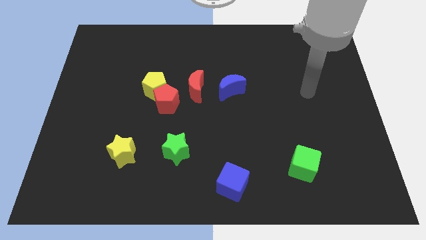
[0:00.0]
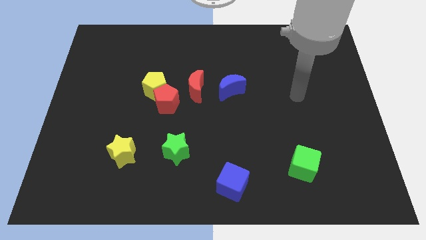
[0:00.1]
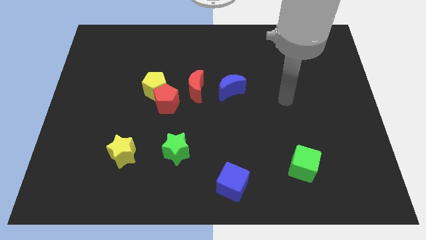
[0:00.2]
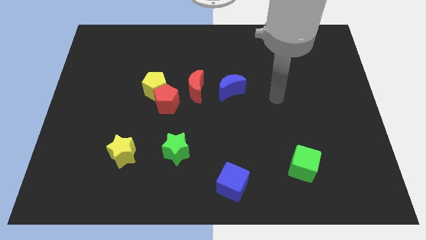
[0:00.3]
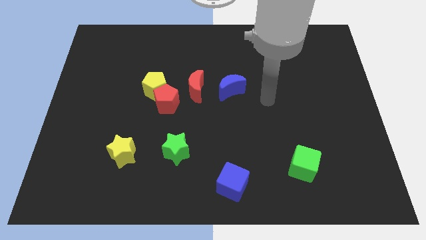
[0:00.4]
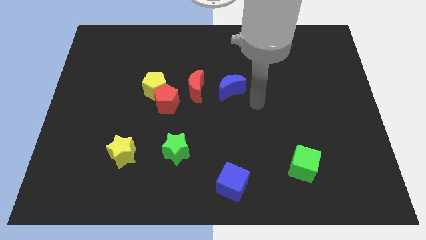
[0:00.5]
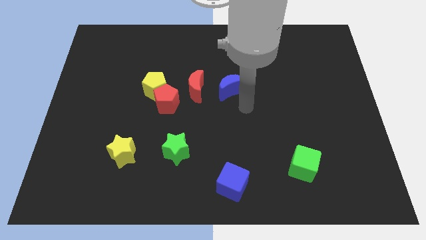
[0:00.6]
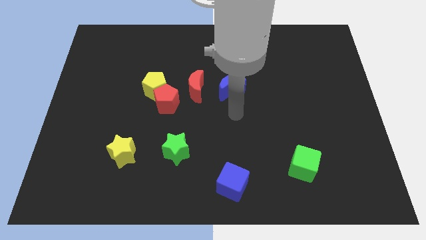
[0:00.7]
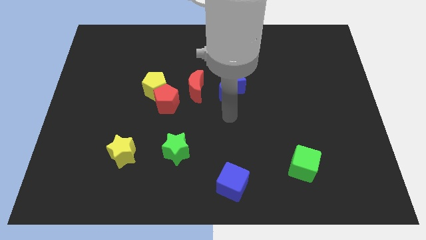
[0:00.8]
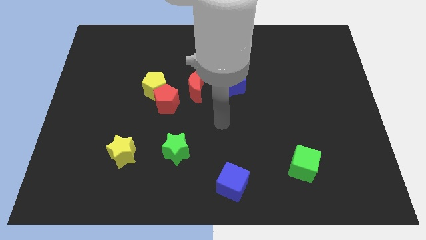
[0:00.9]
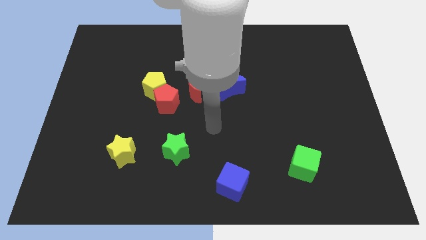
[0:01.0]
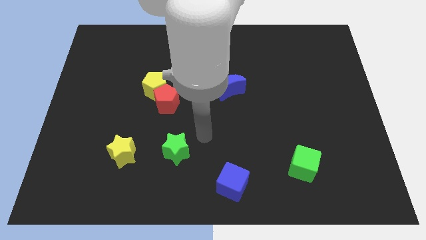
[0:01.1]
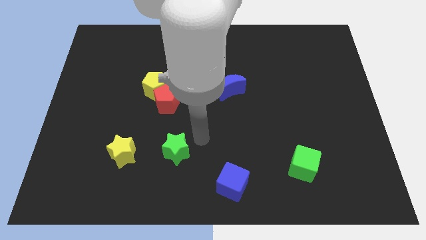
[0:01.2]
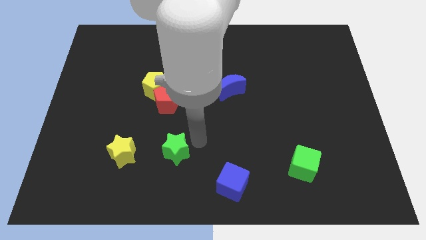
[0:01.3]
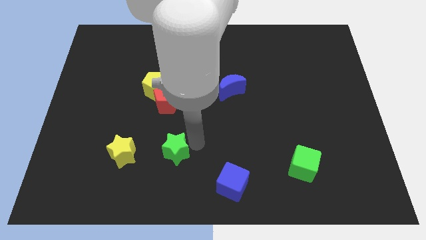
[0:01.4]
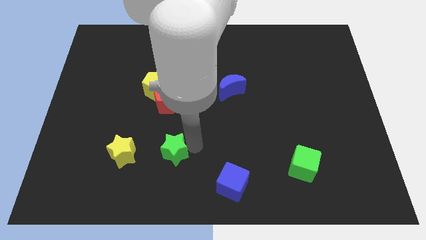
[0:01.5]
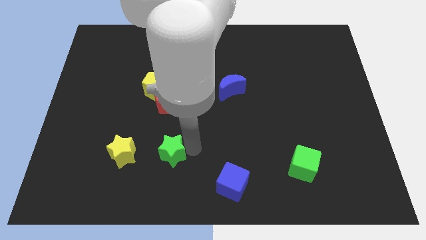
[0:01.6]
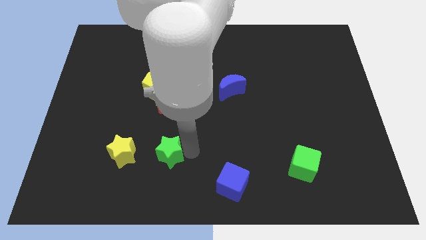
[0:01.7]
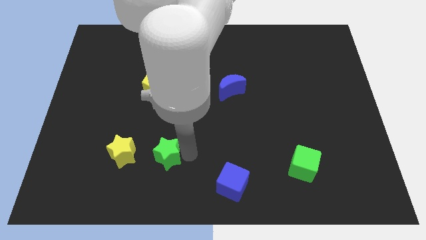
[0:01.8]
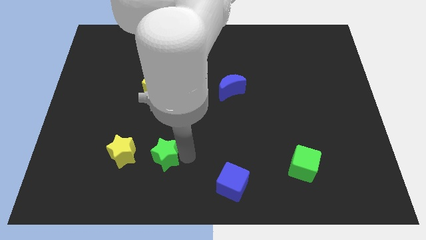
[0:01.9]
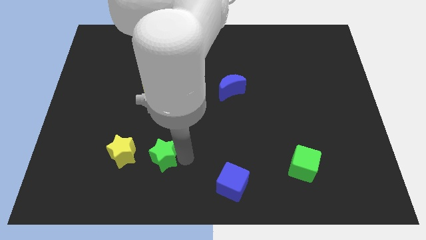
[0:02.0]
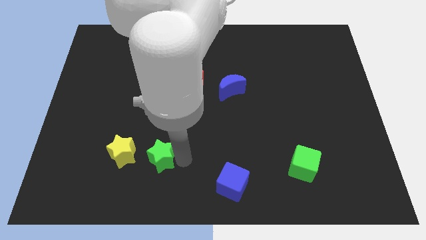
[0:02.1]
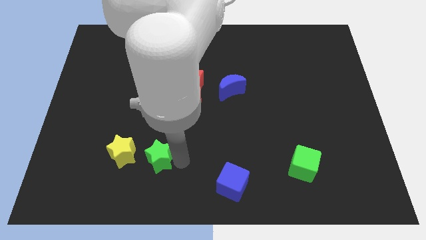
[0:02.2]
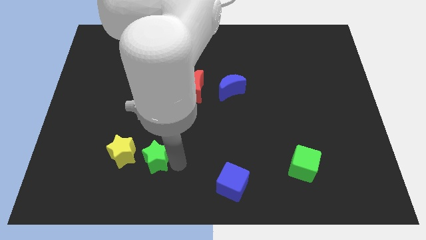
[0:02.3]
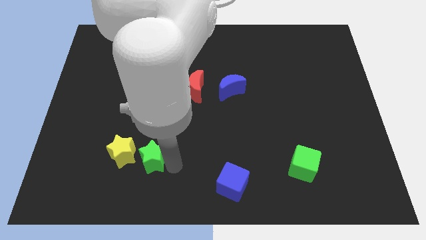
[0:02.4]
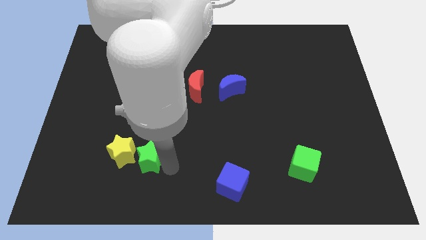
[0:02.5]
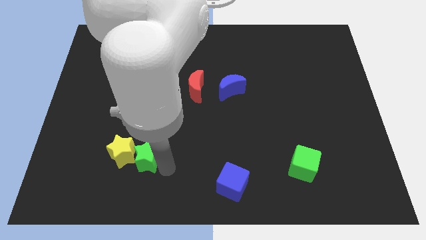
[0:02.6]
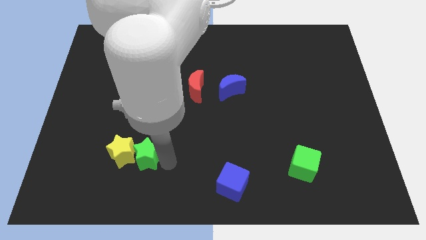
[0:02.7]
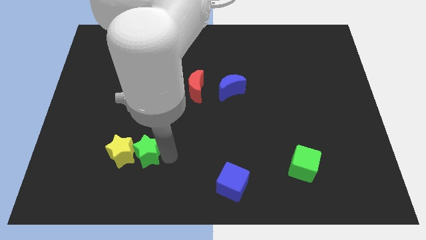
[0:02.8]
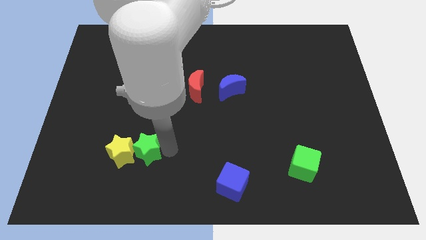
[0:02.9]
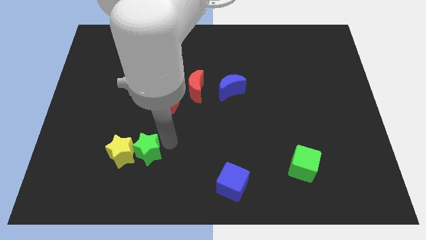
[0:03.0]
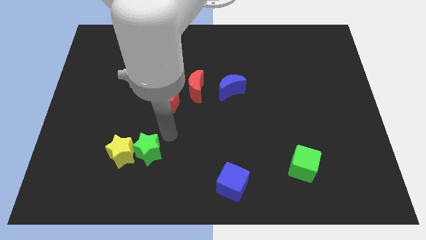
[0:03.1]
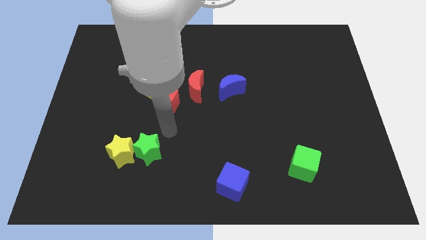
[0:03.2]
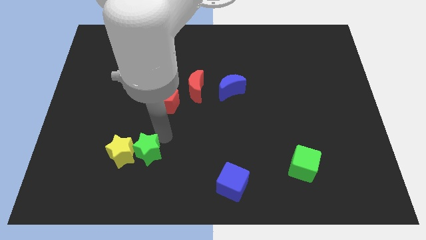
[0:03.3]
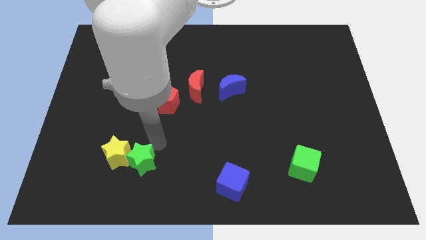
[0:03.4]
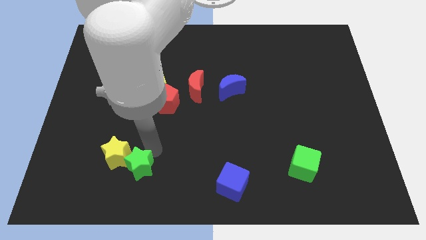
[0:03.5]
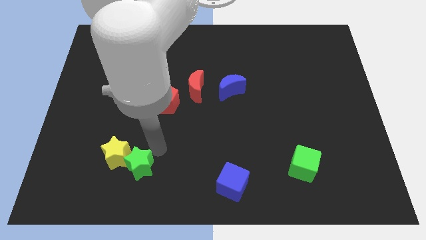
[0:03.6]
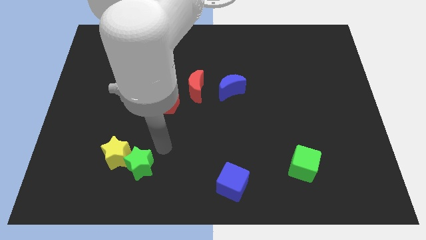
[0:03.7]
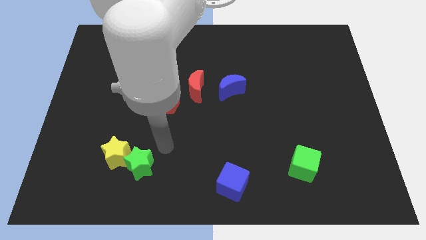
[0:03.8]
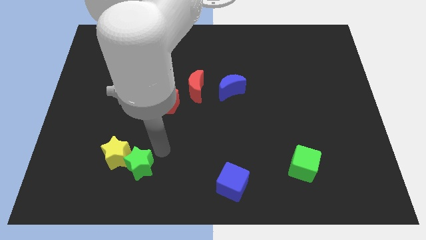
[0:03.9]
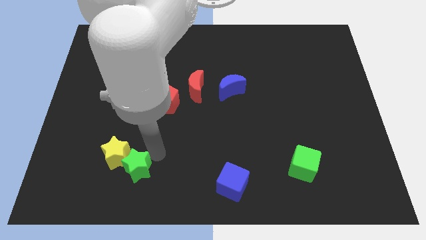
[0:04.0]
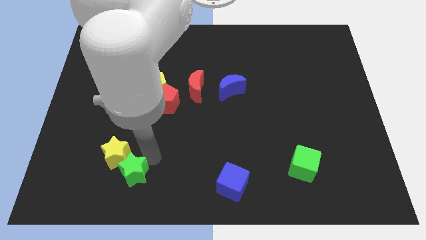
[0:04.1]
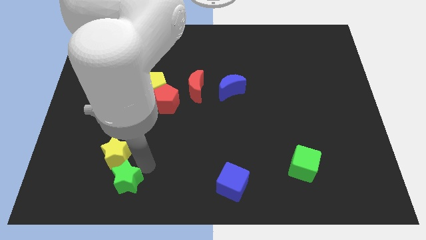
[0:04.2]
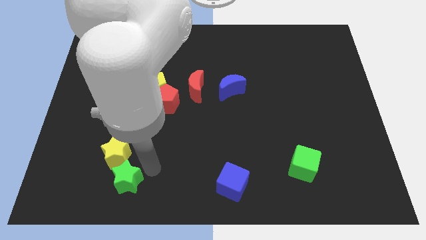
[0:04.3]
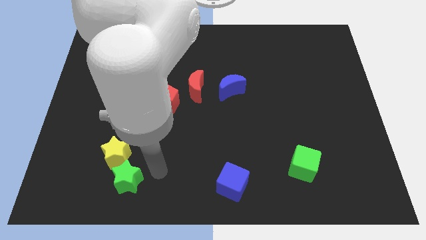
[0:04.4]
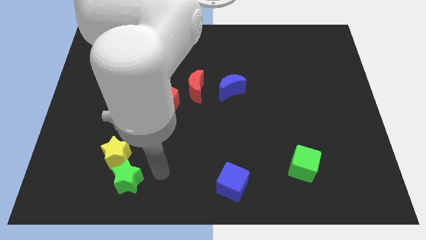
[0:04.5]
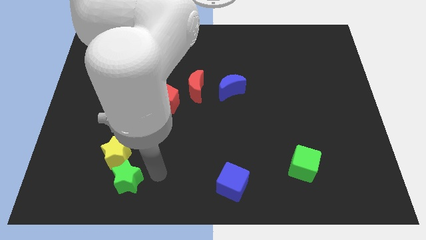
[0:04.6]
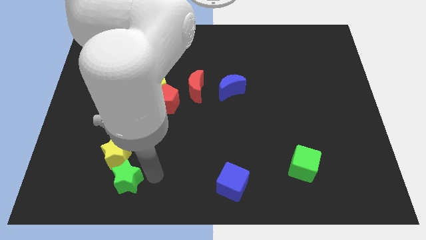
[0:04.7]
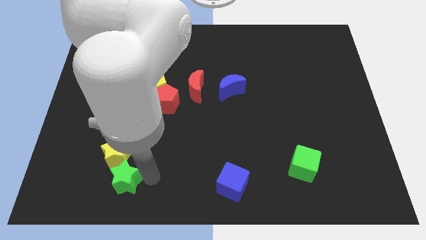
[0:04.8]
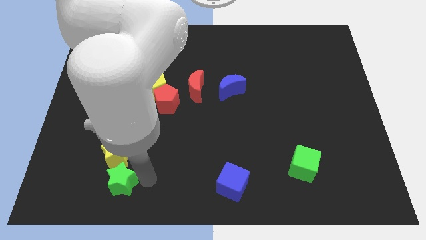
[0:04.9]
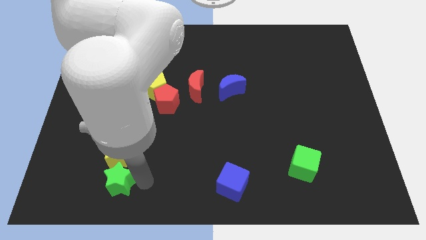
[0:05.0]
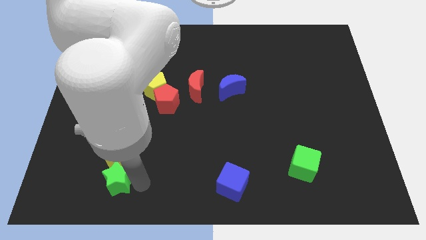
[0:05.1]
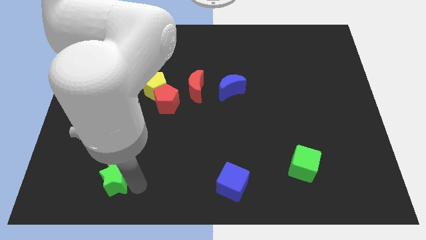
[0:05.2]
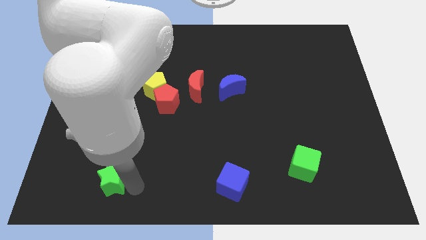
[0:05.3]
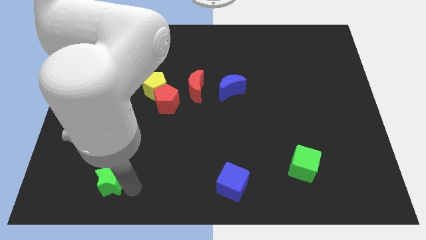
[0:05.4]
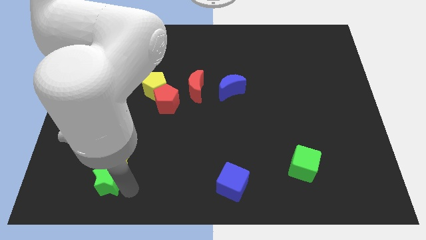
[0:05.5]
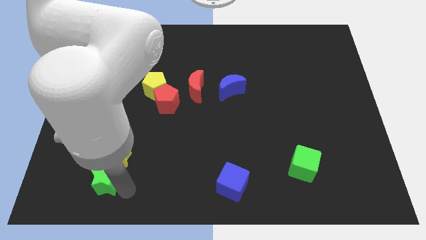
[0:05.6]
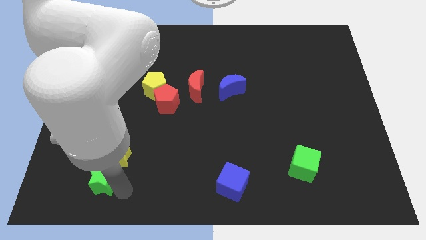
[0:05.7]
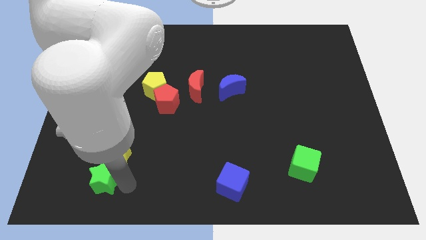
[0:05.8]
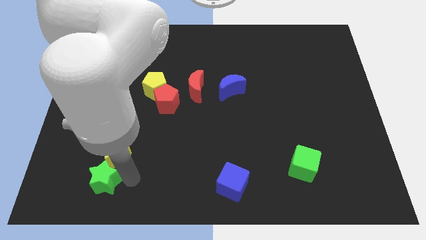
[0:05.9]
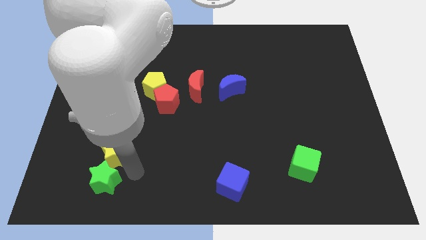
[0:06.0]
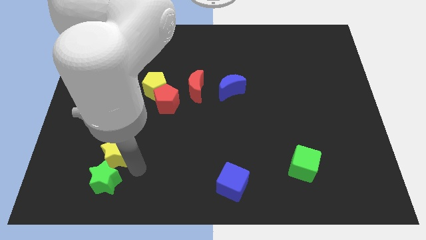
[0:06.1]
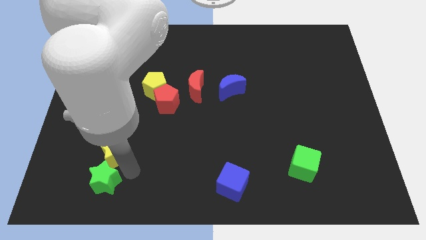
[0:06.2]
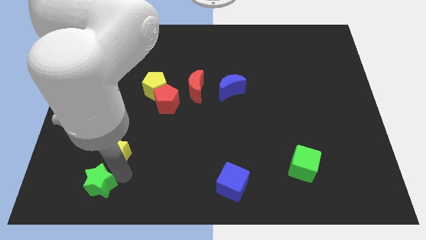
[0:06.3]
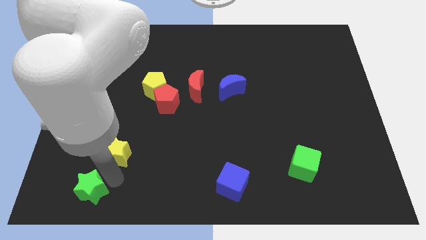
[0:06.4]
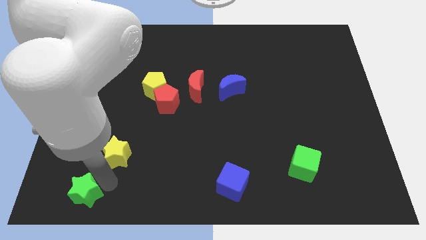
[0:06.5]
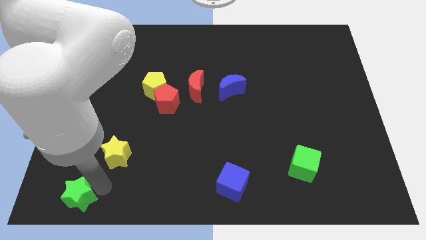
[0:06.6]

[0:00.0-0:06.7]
move the green star to the bottom left
